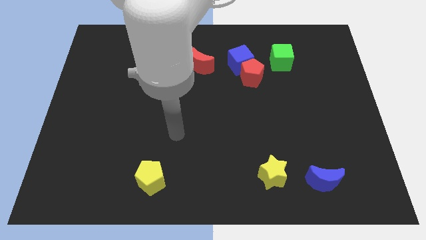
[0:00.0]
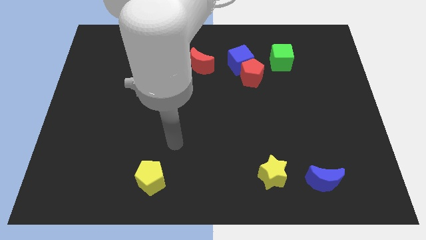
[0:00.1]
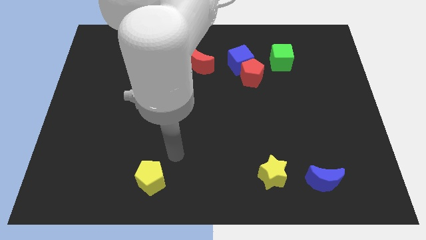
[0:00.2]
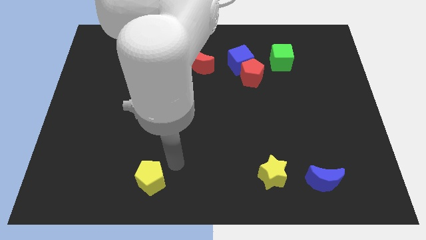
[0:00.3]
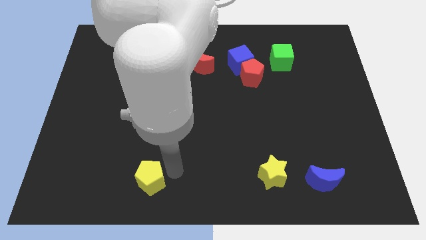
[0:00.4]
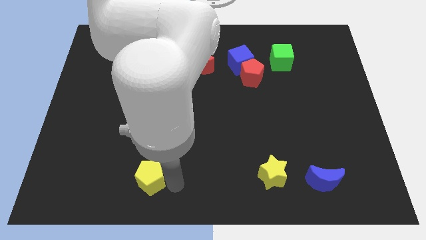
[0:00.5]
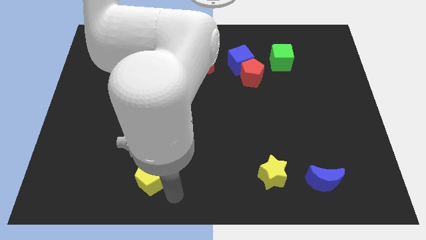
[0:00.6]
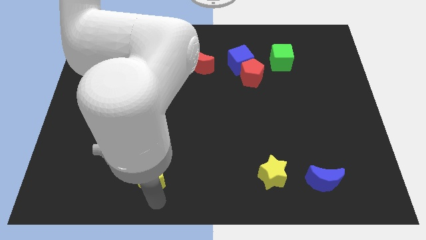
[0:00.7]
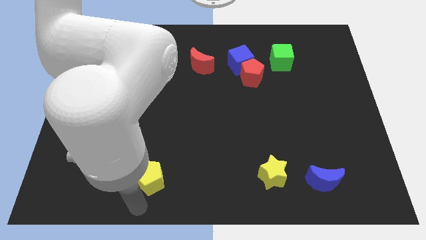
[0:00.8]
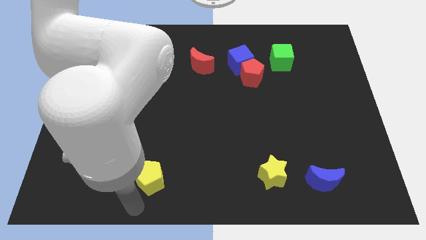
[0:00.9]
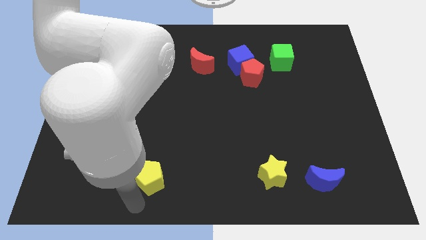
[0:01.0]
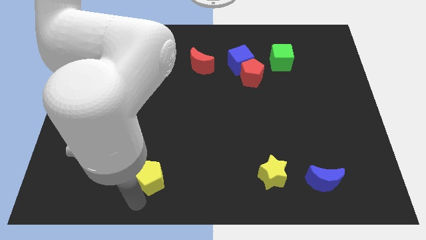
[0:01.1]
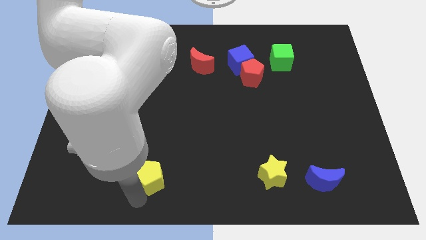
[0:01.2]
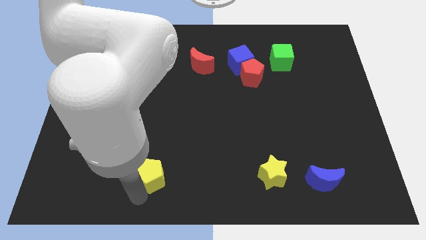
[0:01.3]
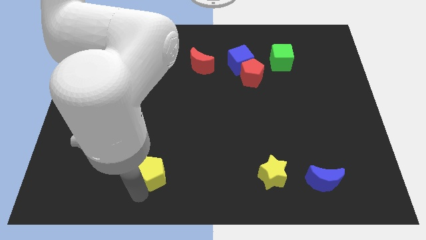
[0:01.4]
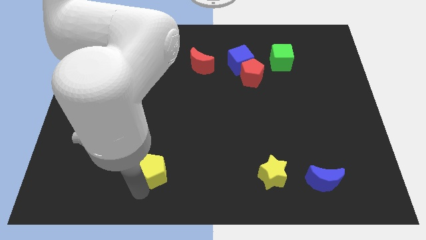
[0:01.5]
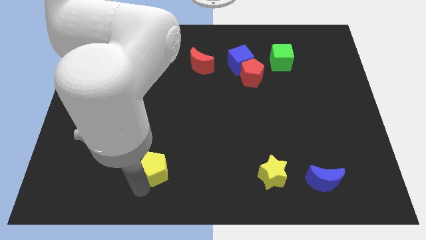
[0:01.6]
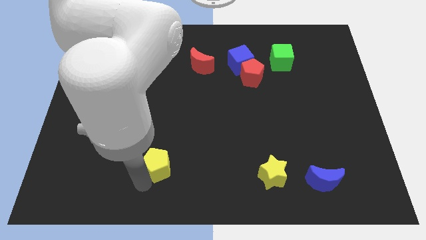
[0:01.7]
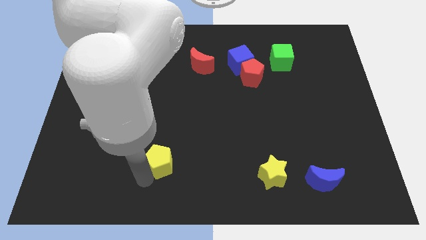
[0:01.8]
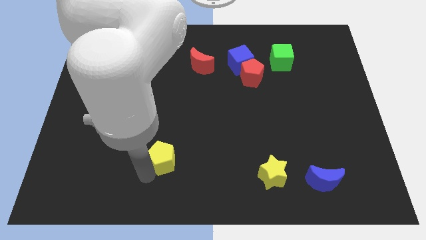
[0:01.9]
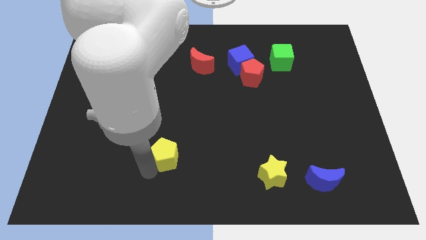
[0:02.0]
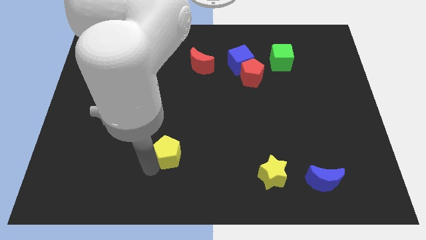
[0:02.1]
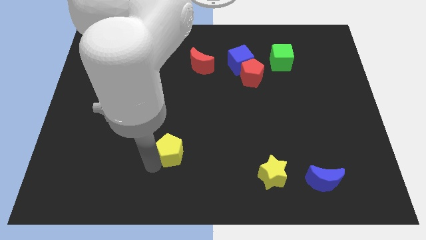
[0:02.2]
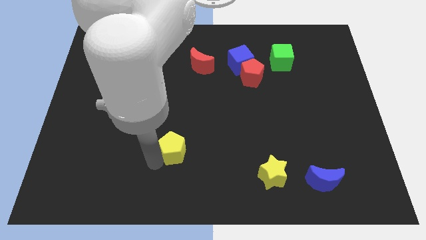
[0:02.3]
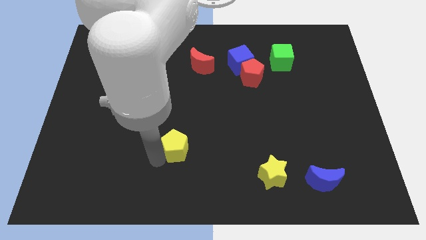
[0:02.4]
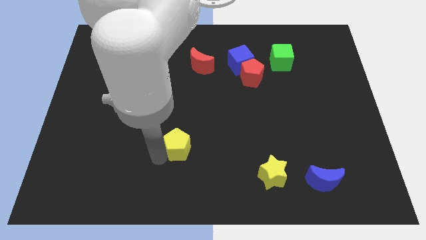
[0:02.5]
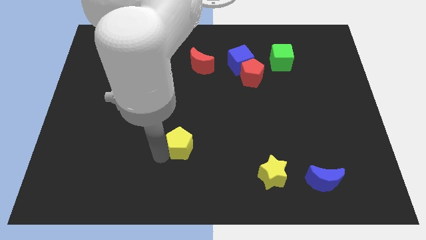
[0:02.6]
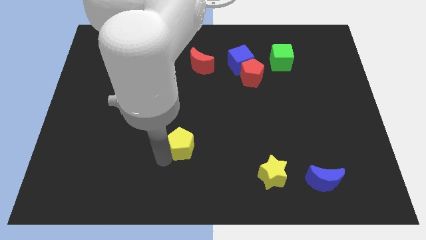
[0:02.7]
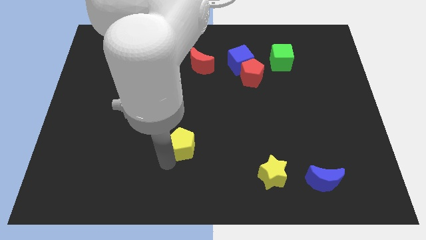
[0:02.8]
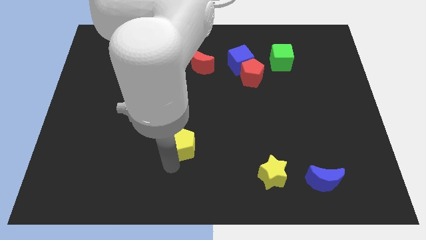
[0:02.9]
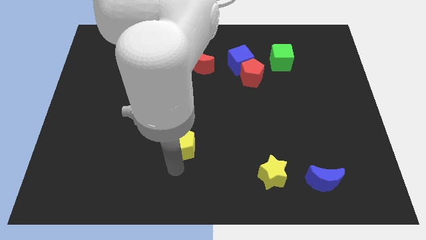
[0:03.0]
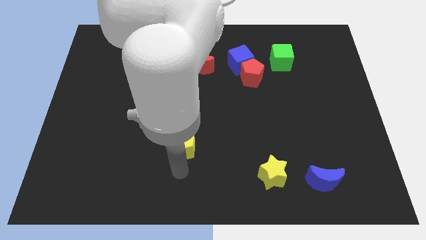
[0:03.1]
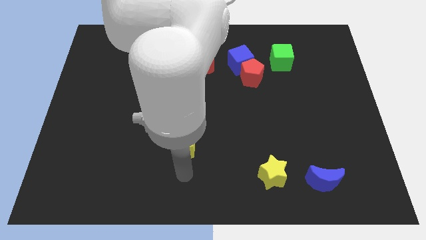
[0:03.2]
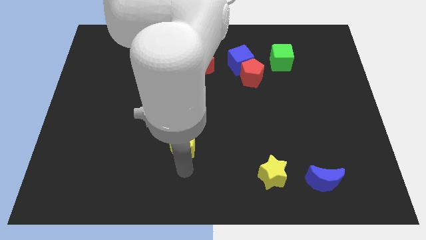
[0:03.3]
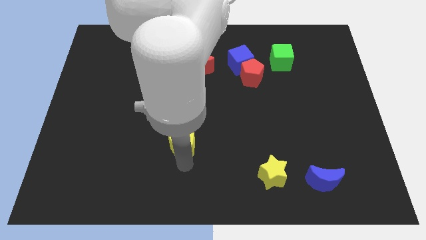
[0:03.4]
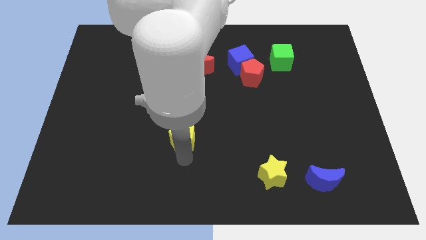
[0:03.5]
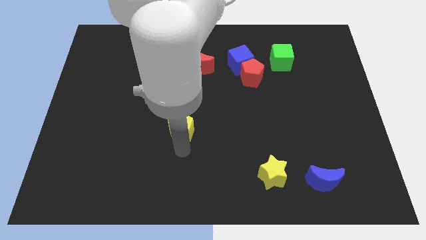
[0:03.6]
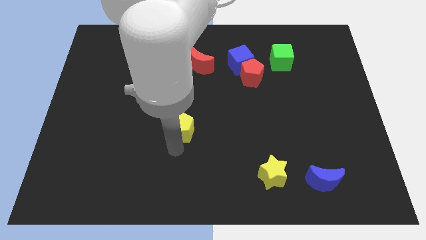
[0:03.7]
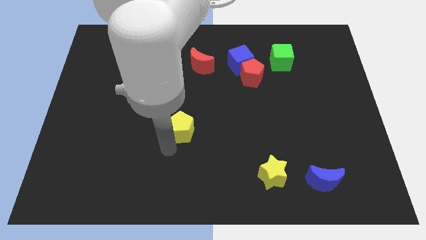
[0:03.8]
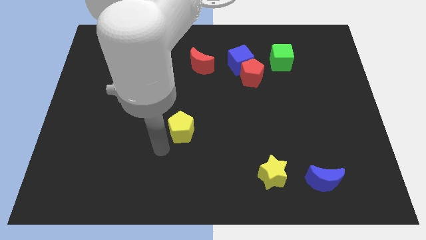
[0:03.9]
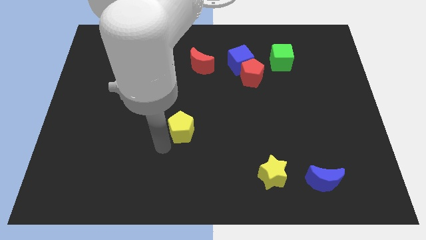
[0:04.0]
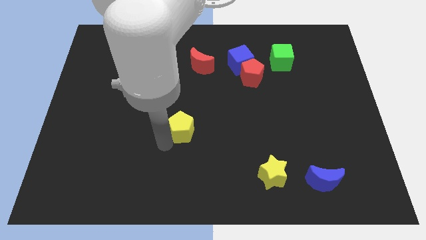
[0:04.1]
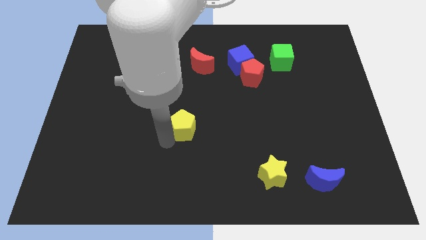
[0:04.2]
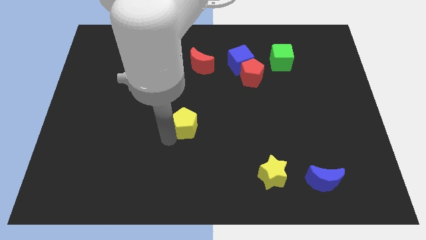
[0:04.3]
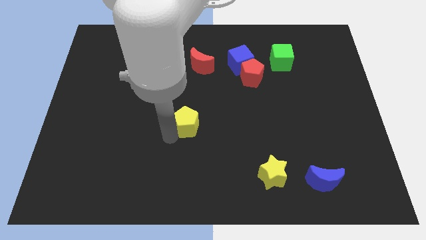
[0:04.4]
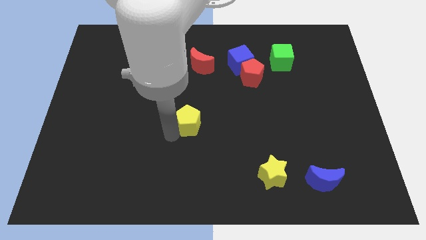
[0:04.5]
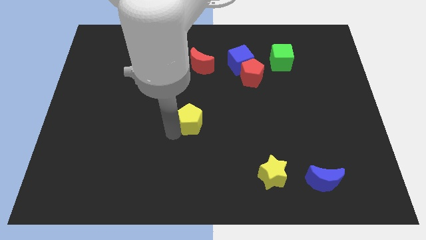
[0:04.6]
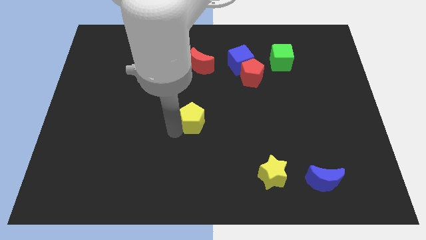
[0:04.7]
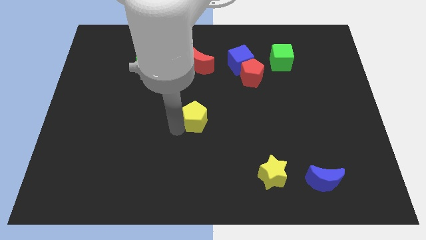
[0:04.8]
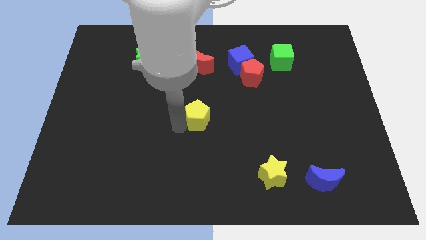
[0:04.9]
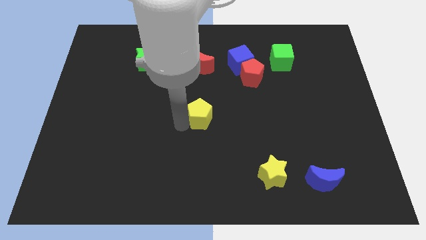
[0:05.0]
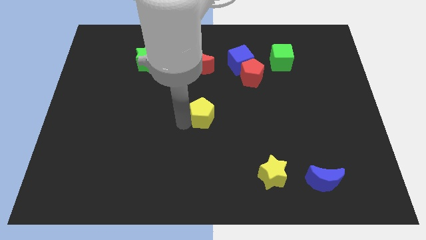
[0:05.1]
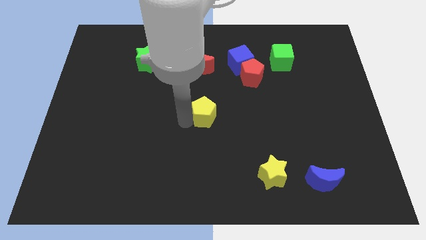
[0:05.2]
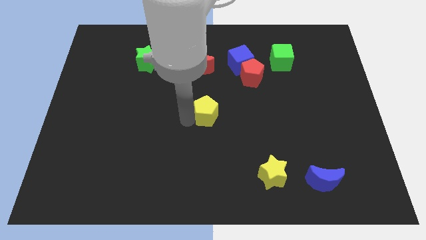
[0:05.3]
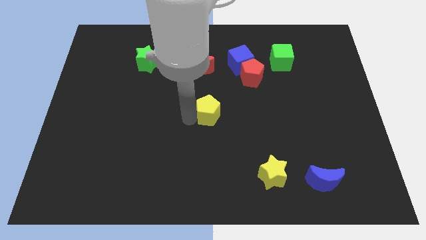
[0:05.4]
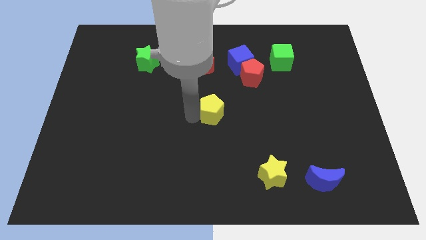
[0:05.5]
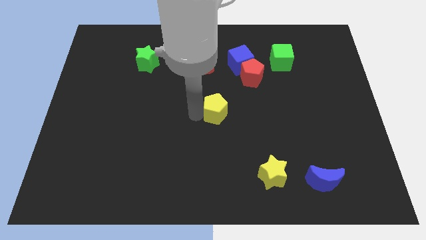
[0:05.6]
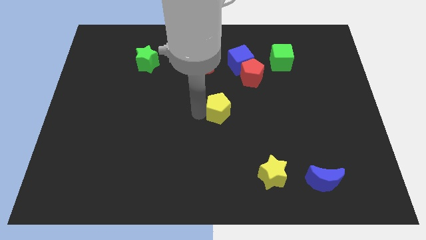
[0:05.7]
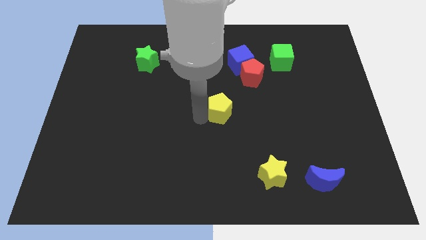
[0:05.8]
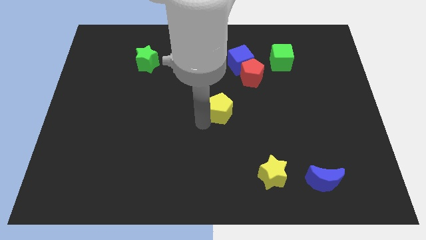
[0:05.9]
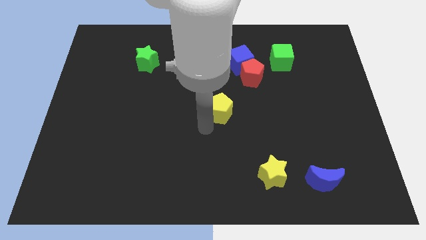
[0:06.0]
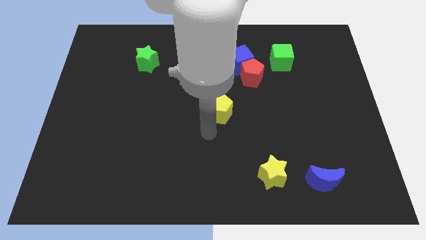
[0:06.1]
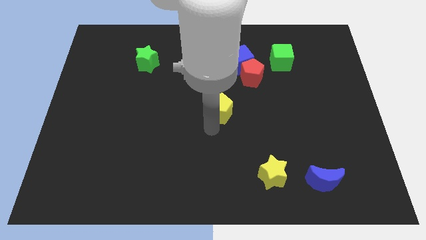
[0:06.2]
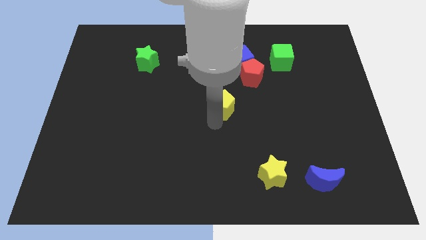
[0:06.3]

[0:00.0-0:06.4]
put the yellow pentagon to the bottom left side of the red pentagon
